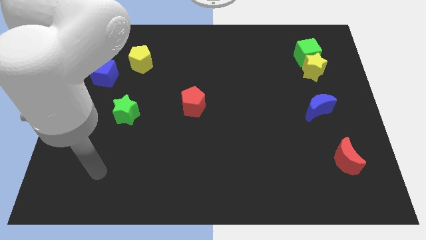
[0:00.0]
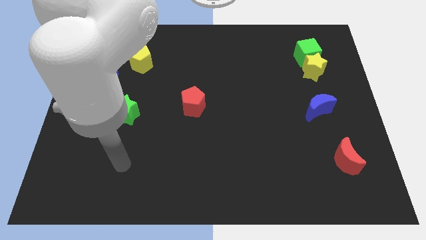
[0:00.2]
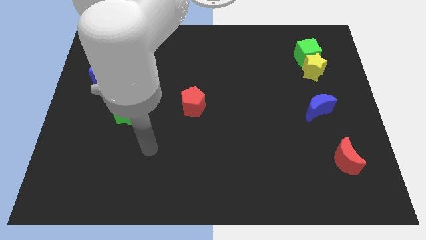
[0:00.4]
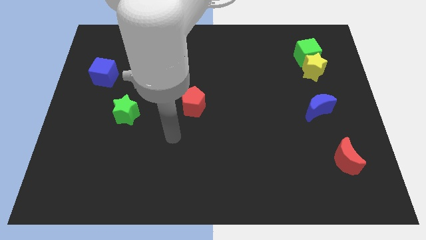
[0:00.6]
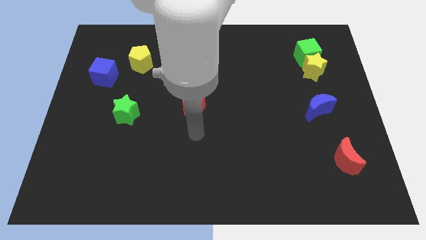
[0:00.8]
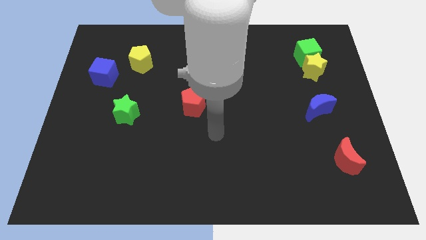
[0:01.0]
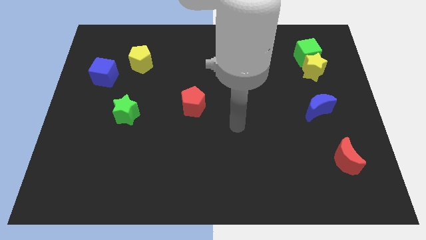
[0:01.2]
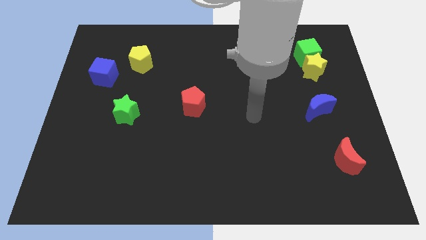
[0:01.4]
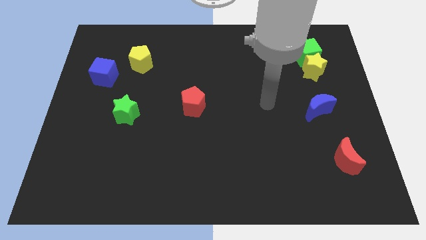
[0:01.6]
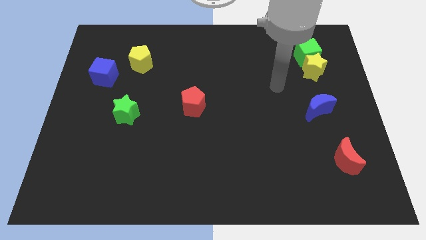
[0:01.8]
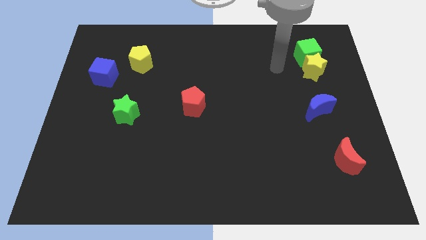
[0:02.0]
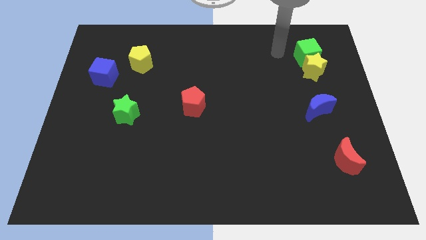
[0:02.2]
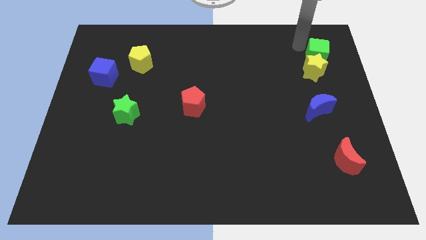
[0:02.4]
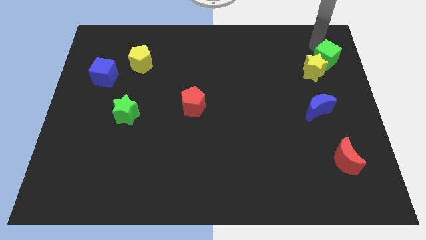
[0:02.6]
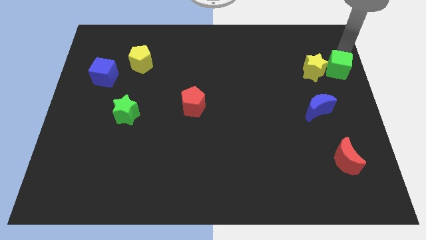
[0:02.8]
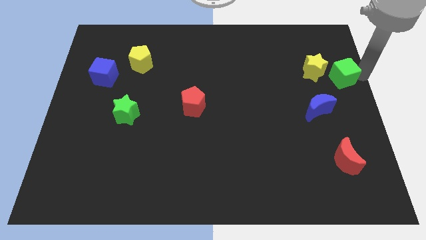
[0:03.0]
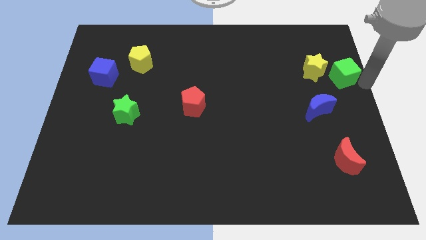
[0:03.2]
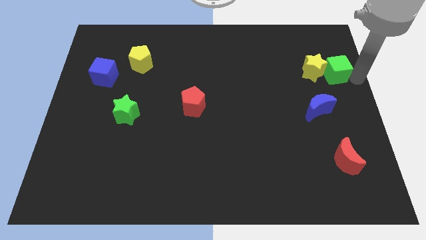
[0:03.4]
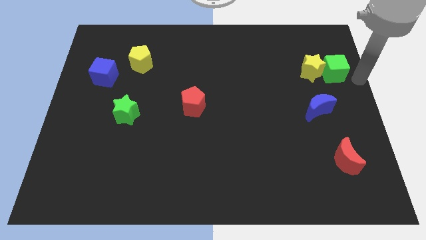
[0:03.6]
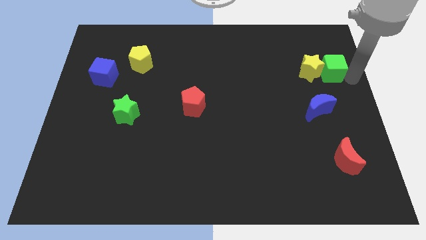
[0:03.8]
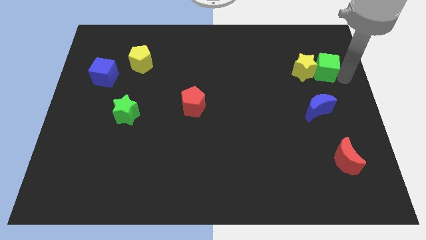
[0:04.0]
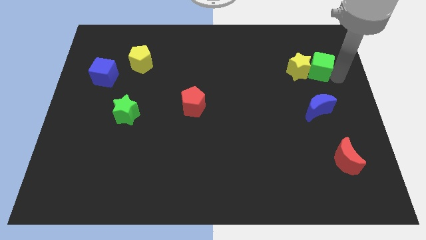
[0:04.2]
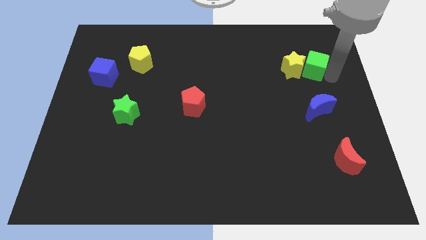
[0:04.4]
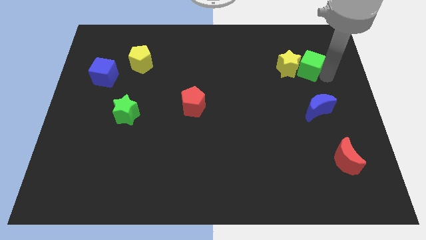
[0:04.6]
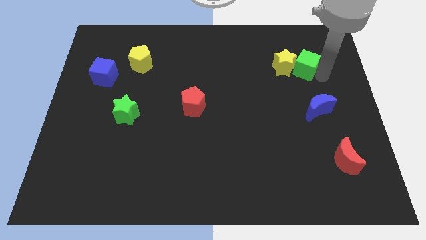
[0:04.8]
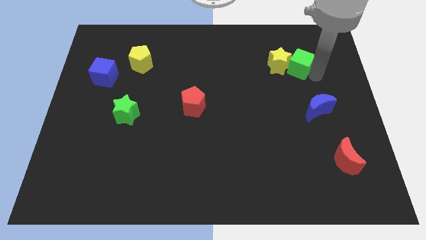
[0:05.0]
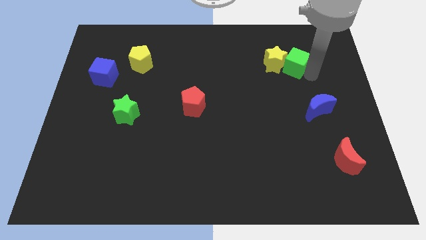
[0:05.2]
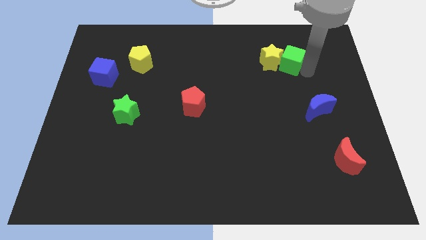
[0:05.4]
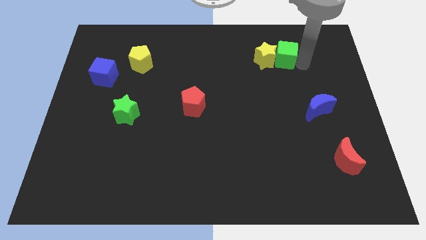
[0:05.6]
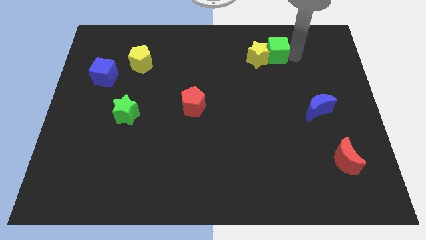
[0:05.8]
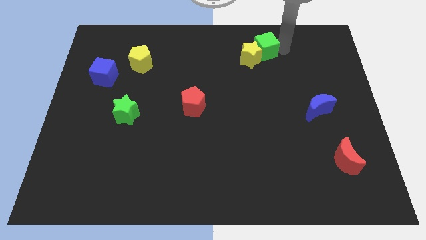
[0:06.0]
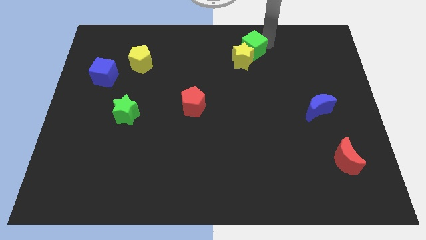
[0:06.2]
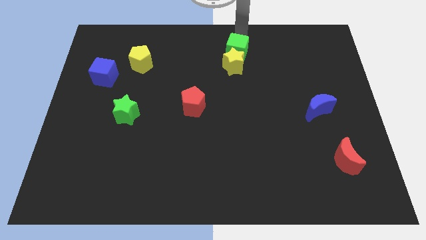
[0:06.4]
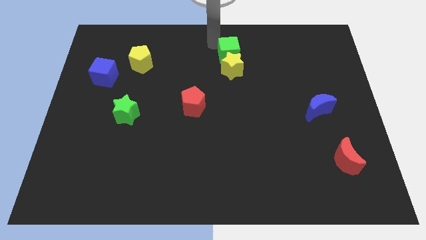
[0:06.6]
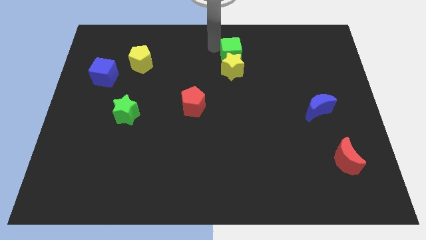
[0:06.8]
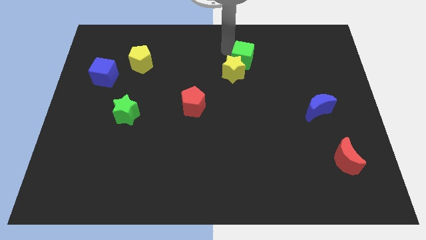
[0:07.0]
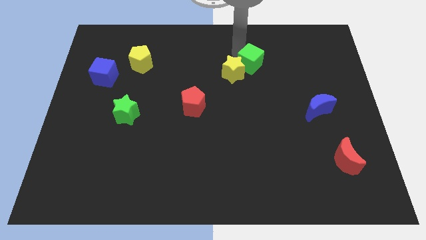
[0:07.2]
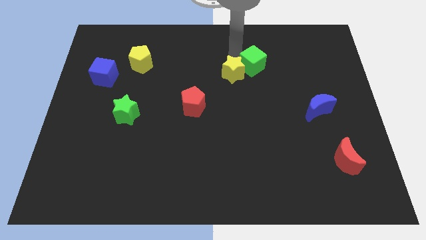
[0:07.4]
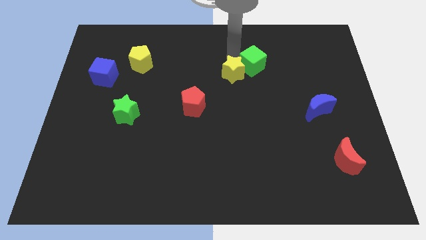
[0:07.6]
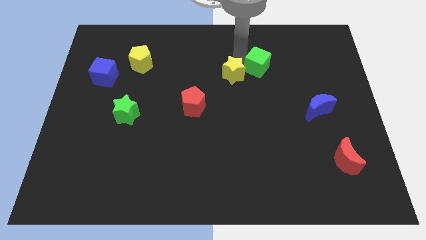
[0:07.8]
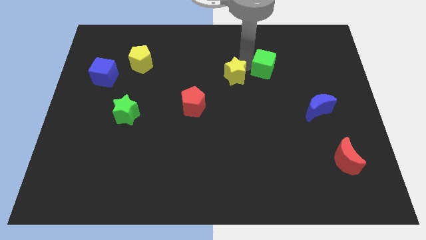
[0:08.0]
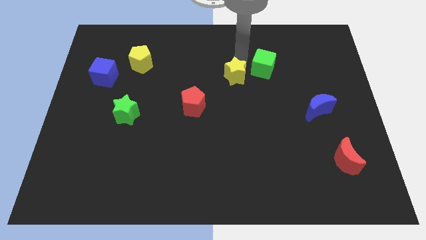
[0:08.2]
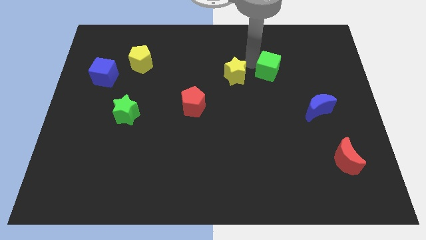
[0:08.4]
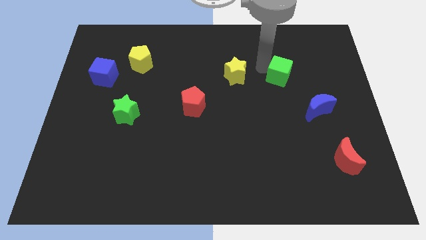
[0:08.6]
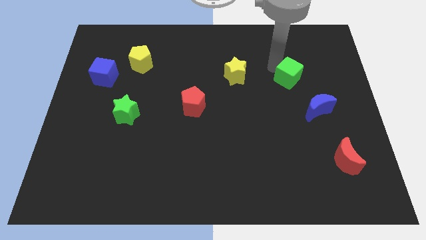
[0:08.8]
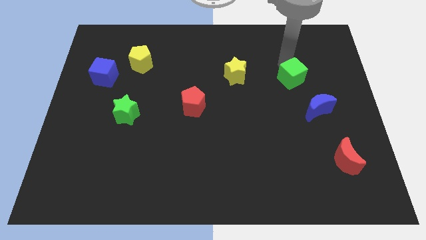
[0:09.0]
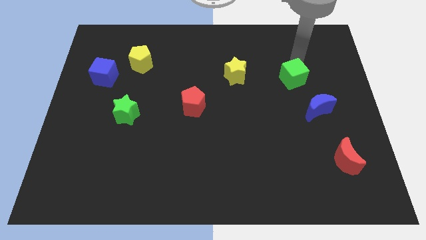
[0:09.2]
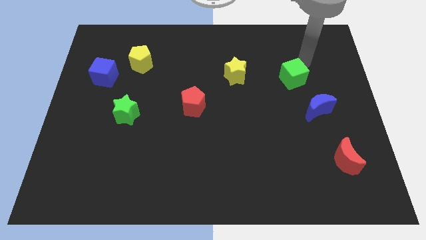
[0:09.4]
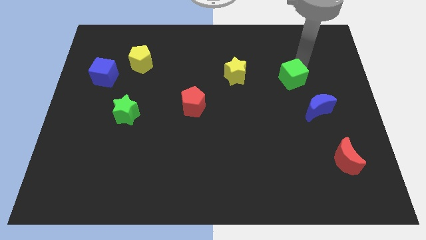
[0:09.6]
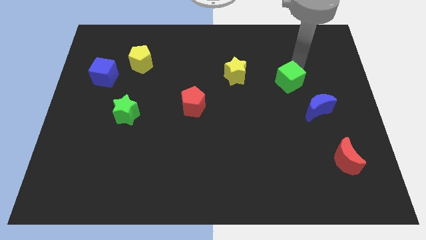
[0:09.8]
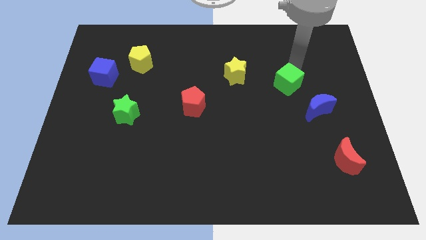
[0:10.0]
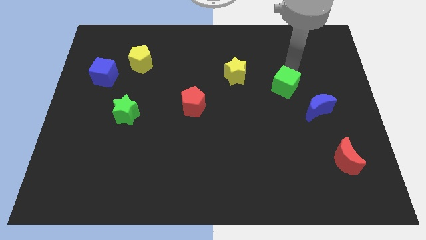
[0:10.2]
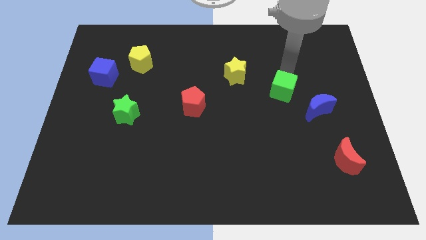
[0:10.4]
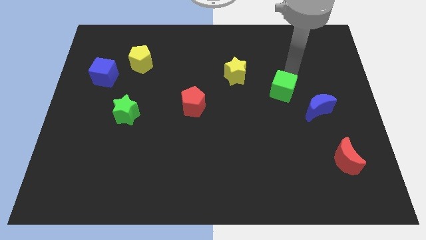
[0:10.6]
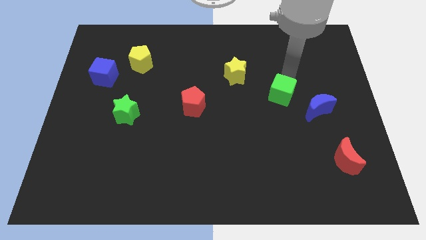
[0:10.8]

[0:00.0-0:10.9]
push the green cube just left of the blue moon

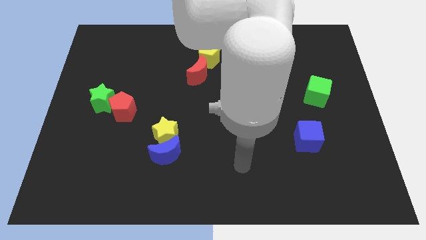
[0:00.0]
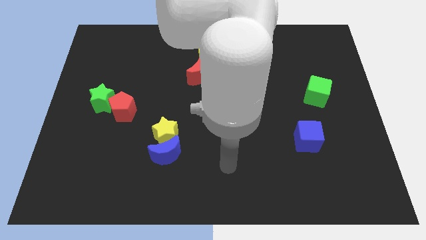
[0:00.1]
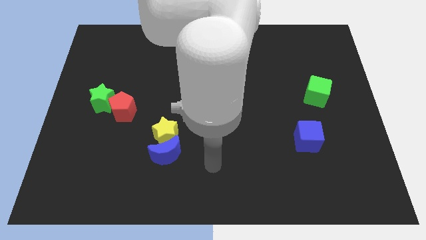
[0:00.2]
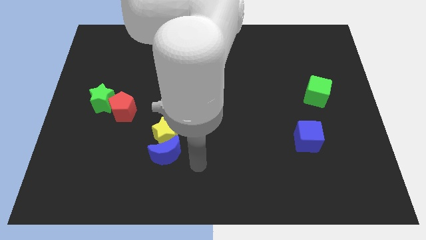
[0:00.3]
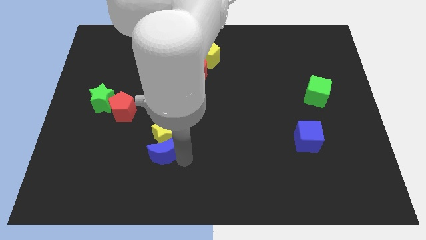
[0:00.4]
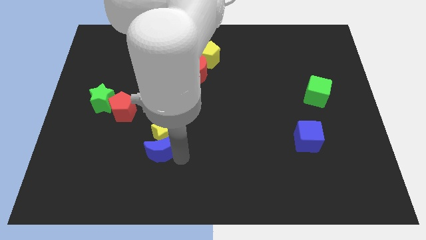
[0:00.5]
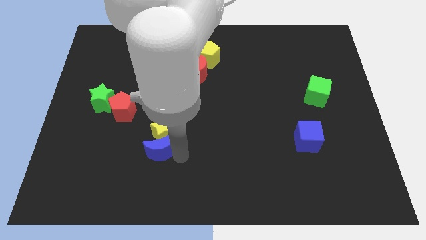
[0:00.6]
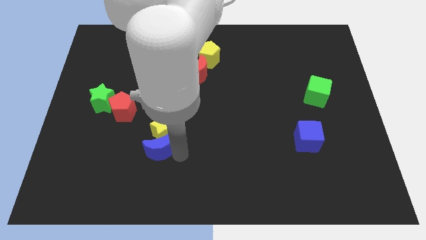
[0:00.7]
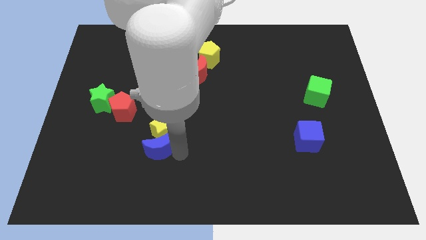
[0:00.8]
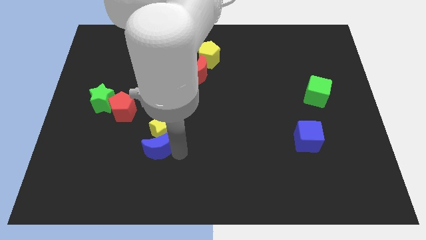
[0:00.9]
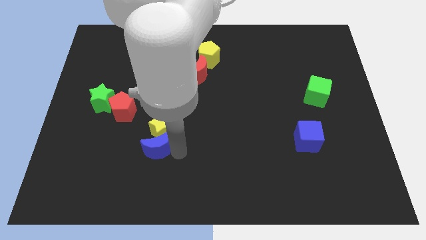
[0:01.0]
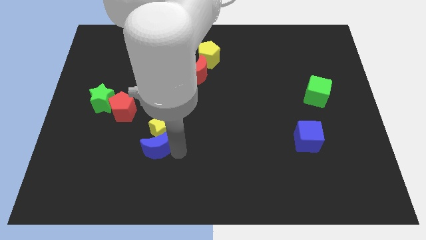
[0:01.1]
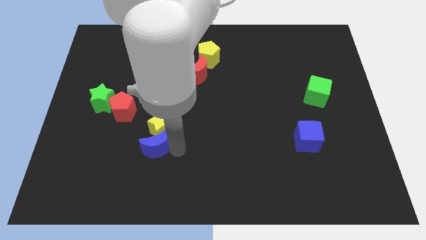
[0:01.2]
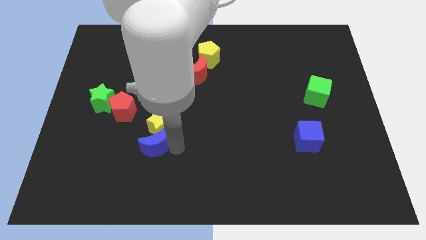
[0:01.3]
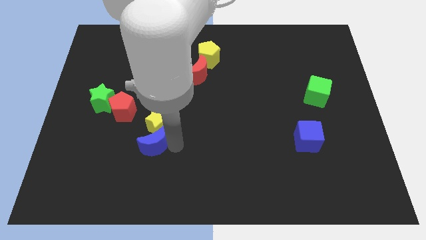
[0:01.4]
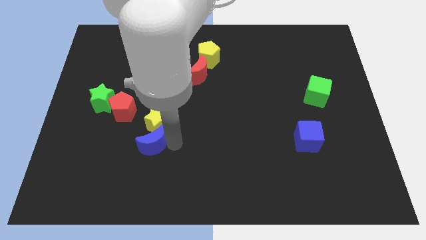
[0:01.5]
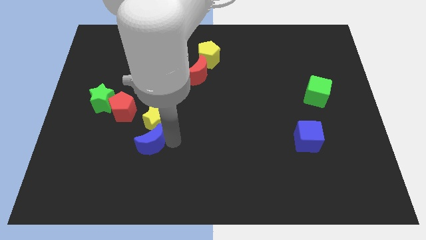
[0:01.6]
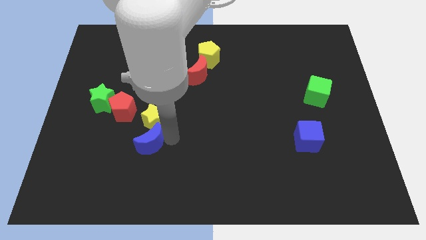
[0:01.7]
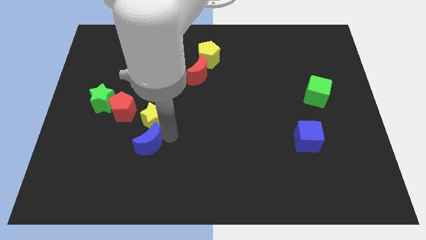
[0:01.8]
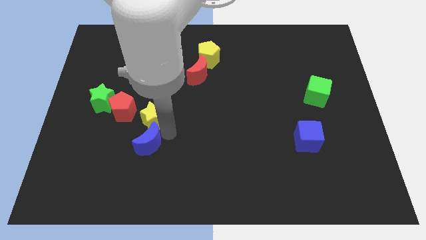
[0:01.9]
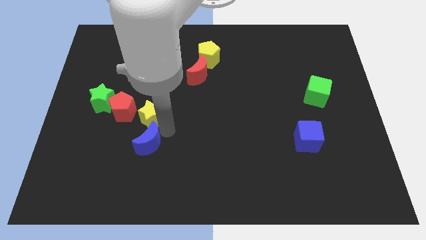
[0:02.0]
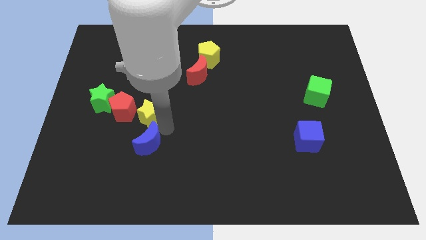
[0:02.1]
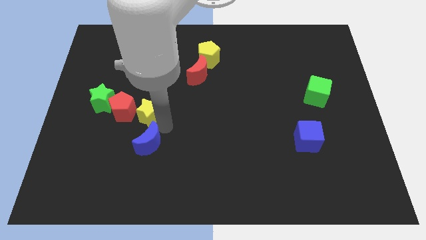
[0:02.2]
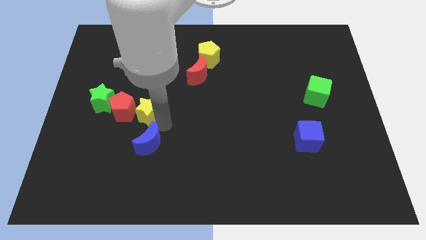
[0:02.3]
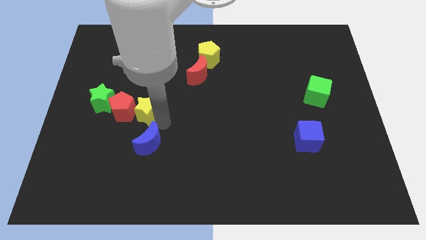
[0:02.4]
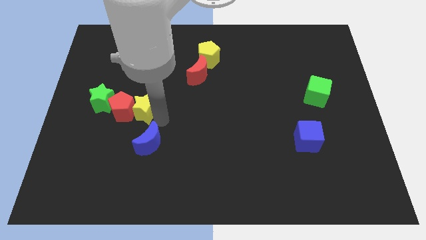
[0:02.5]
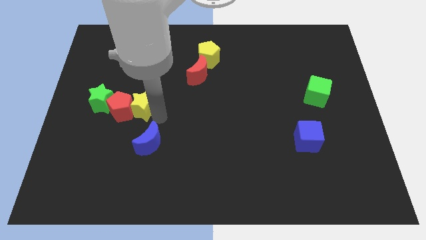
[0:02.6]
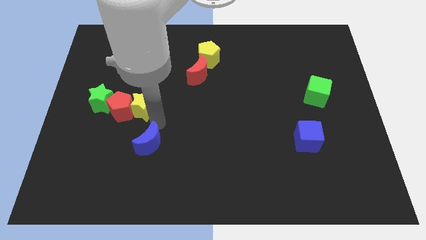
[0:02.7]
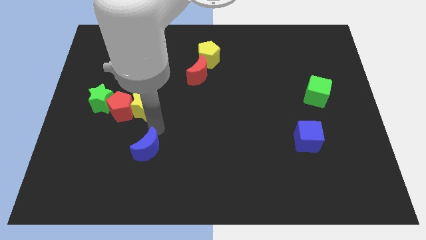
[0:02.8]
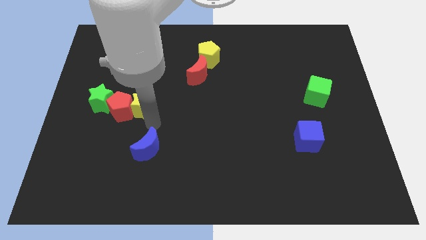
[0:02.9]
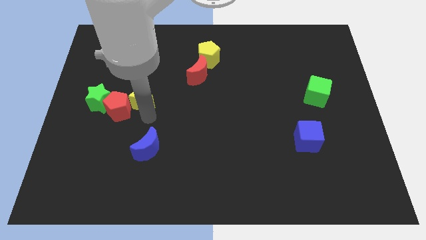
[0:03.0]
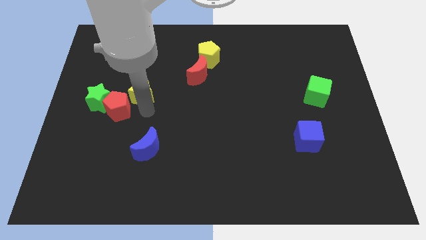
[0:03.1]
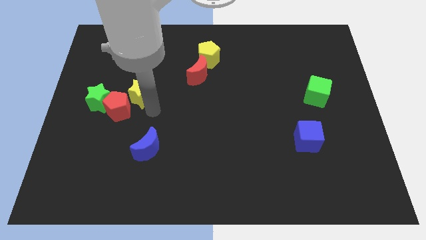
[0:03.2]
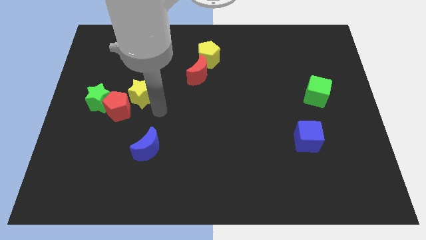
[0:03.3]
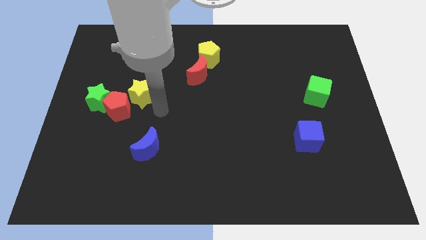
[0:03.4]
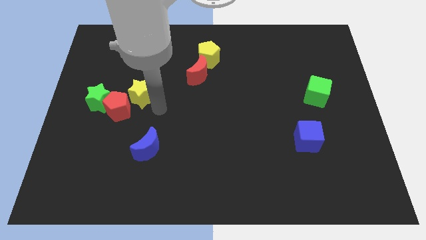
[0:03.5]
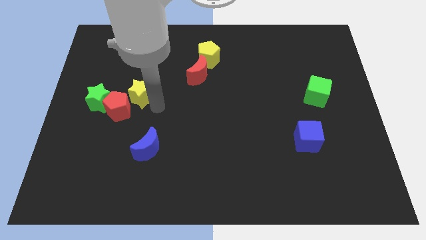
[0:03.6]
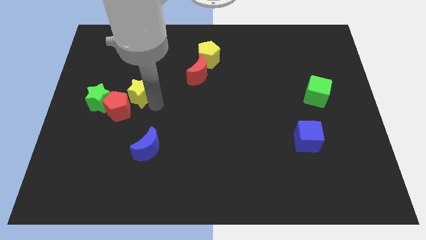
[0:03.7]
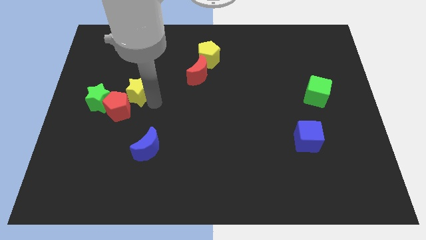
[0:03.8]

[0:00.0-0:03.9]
push the yellow star diagonally up and to the right of the green star
